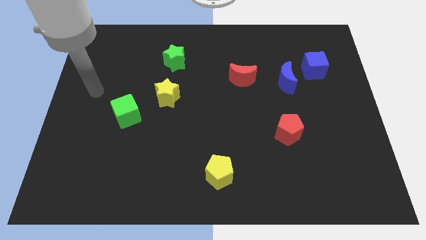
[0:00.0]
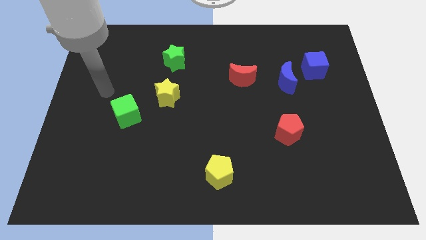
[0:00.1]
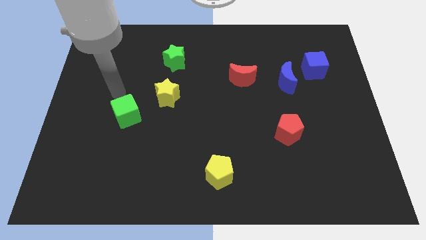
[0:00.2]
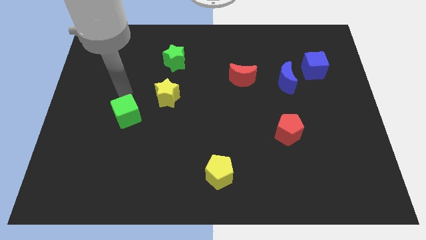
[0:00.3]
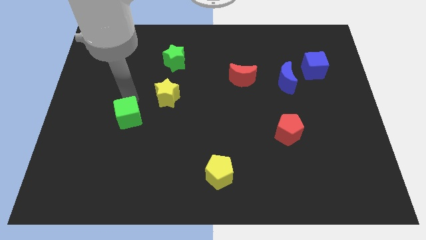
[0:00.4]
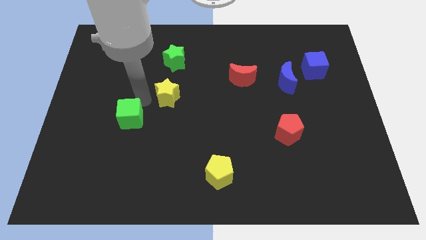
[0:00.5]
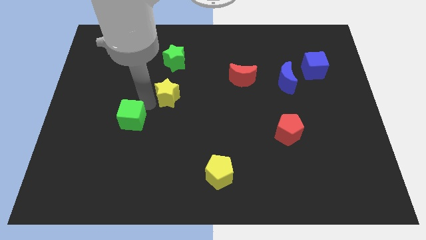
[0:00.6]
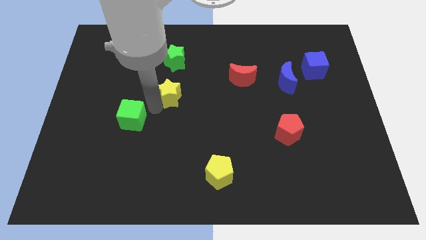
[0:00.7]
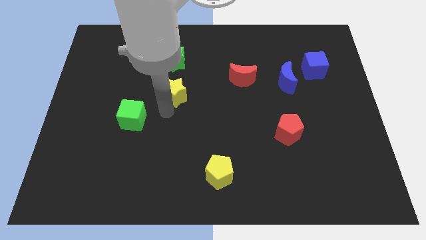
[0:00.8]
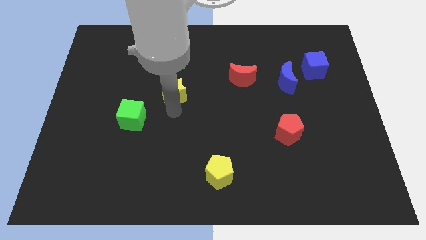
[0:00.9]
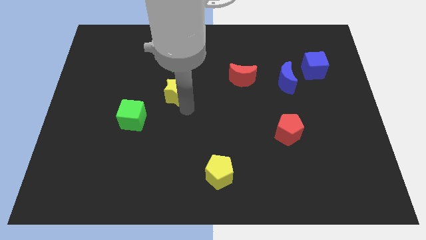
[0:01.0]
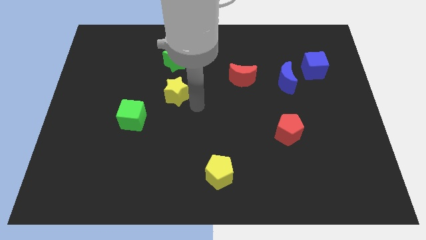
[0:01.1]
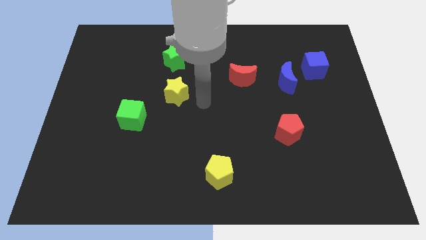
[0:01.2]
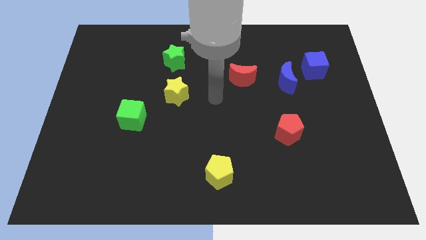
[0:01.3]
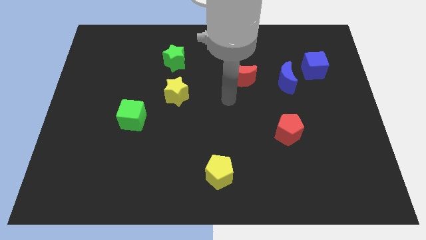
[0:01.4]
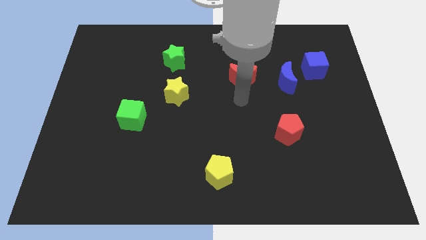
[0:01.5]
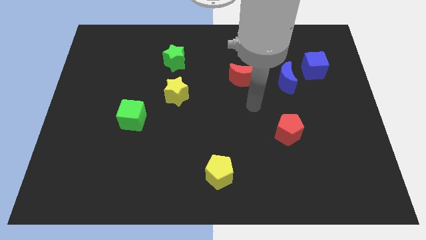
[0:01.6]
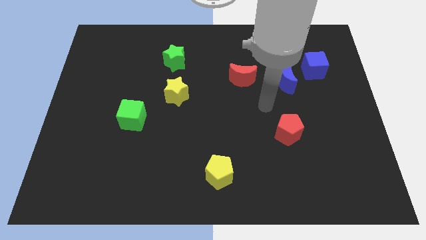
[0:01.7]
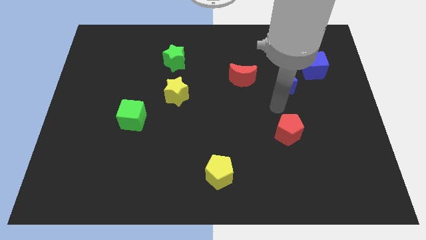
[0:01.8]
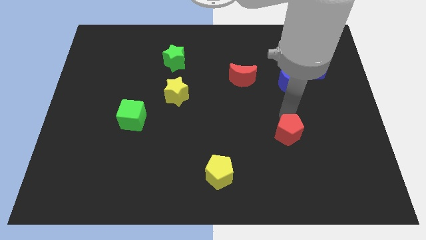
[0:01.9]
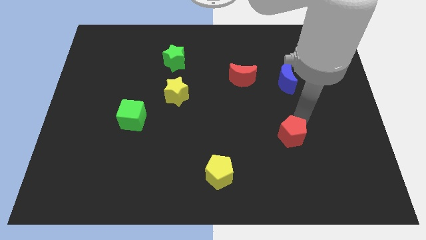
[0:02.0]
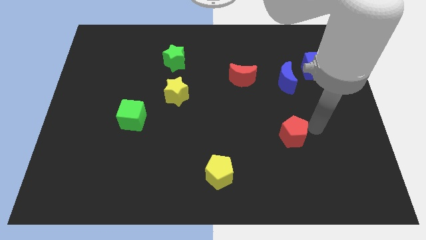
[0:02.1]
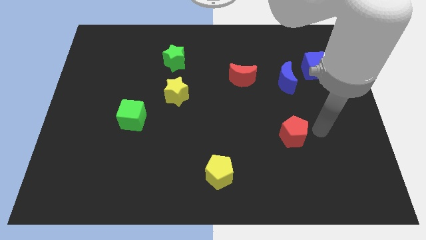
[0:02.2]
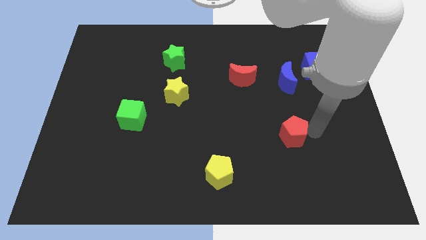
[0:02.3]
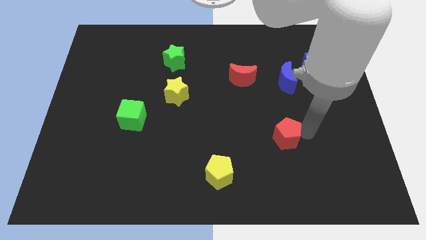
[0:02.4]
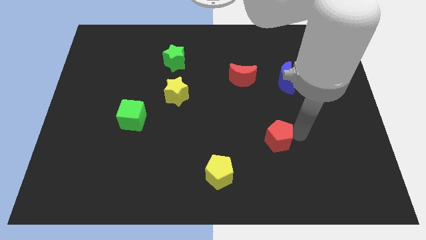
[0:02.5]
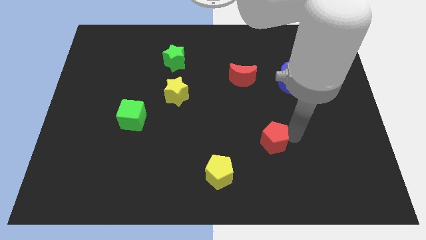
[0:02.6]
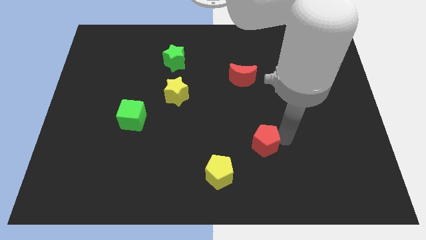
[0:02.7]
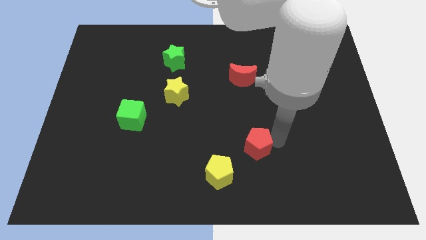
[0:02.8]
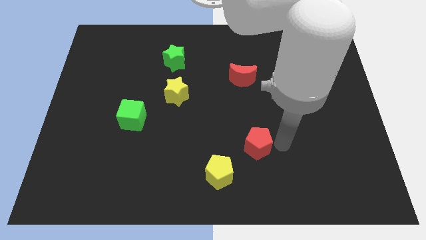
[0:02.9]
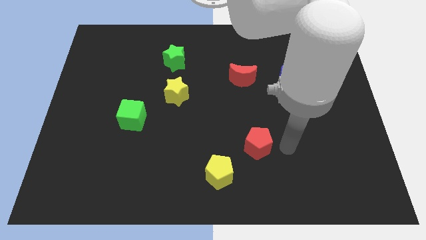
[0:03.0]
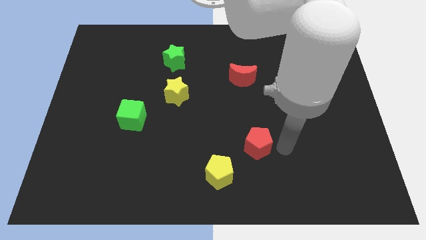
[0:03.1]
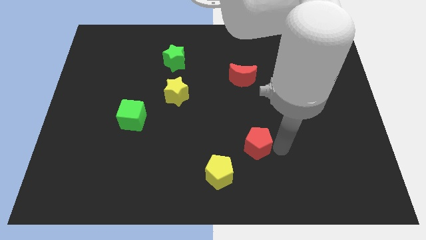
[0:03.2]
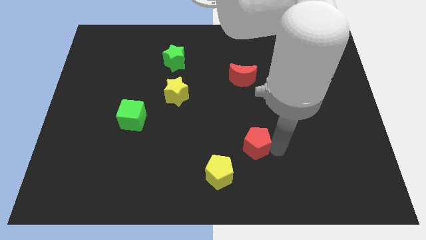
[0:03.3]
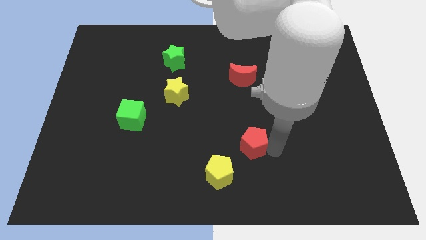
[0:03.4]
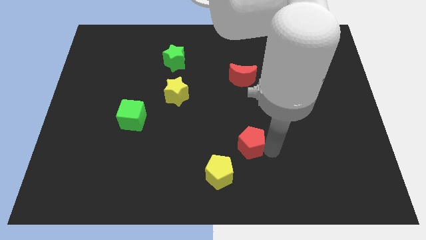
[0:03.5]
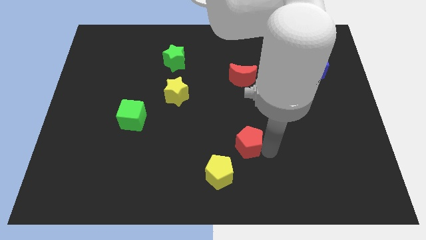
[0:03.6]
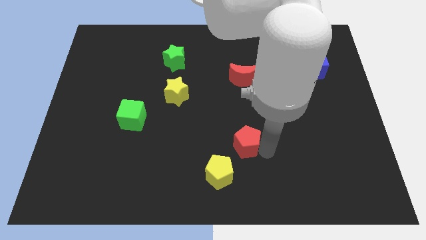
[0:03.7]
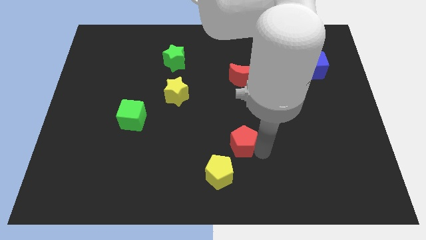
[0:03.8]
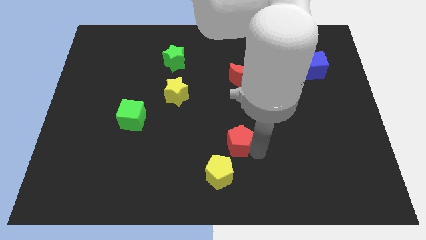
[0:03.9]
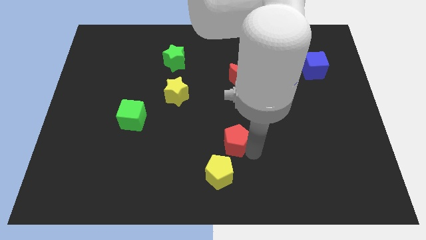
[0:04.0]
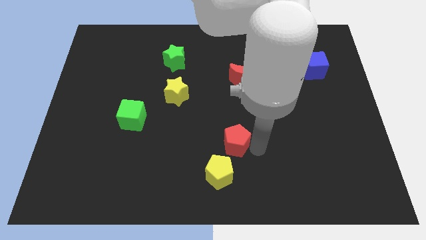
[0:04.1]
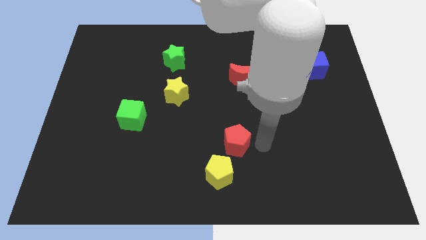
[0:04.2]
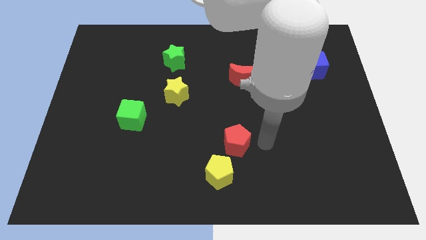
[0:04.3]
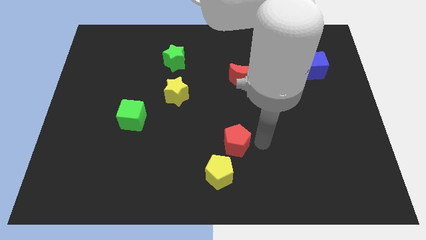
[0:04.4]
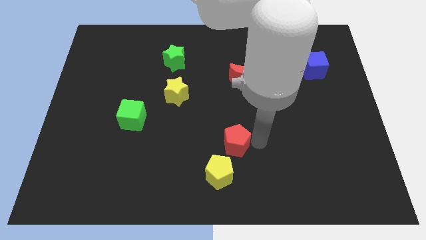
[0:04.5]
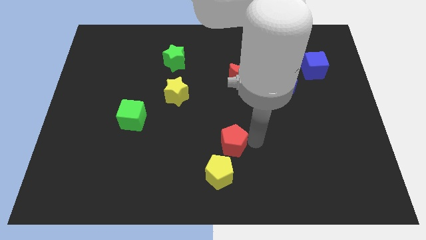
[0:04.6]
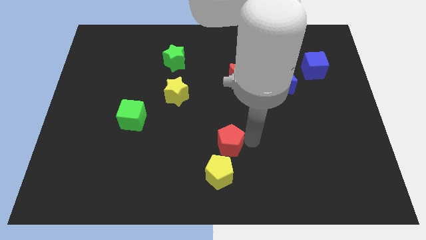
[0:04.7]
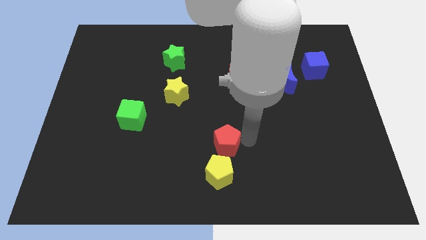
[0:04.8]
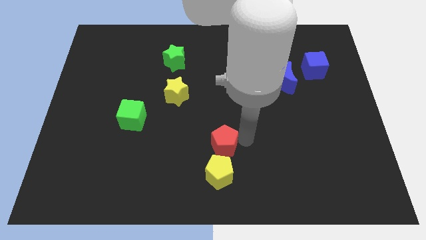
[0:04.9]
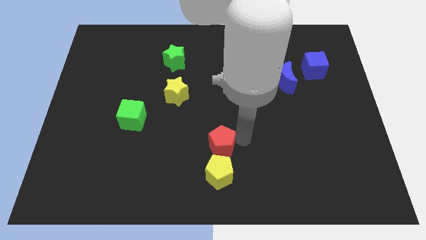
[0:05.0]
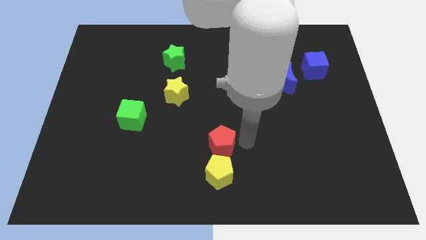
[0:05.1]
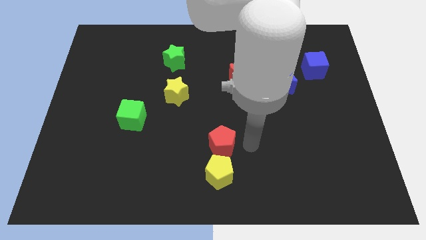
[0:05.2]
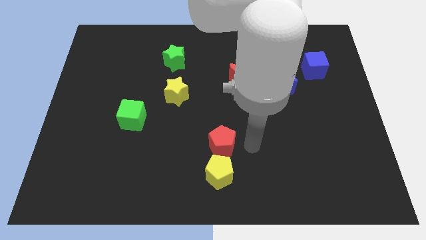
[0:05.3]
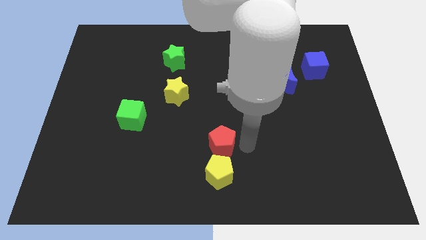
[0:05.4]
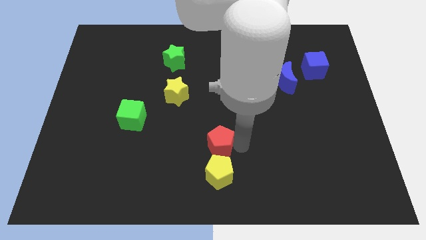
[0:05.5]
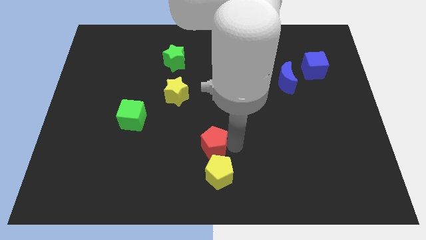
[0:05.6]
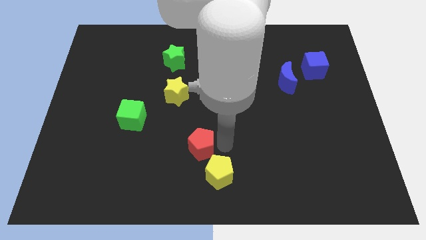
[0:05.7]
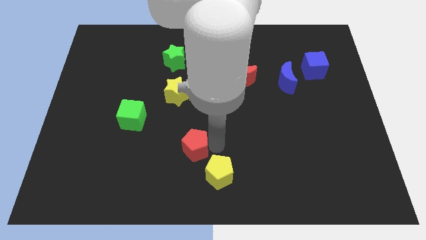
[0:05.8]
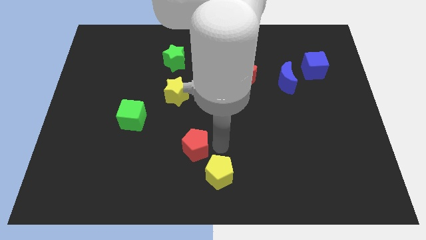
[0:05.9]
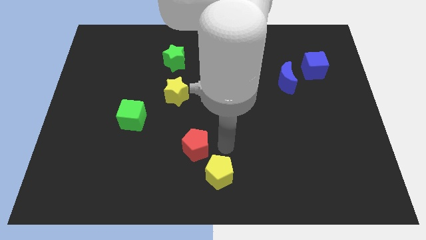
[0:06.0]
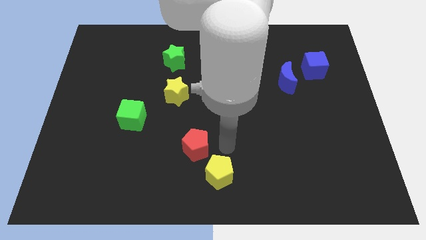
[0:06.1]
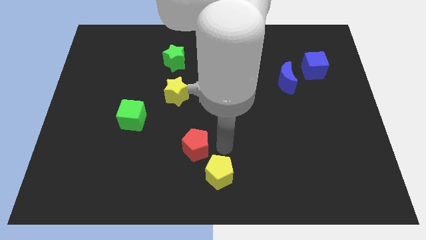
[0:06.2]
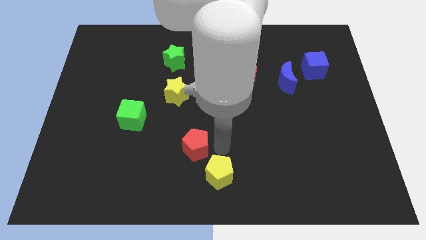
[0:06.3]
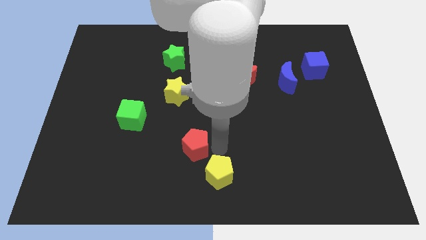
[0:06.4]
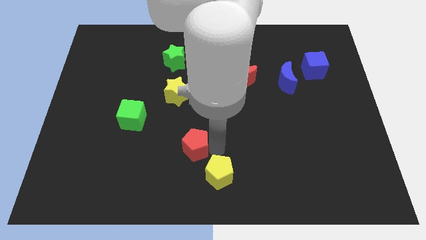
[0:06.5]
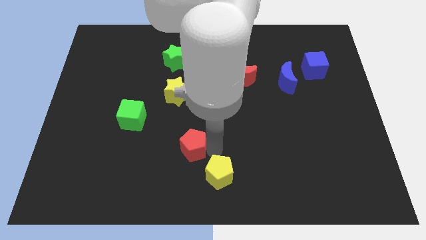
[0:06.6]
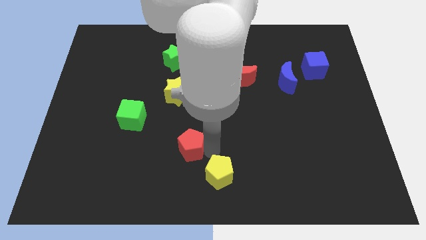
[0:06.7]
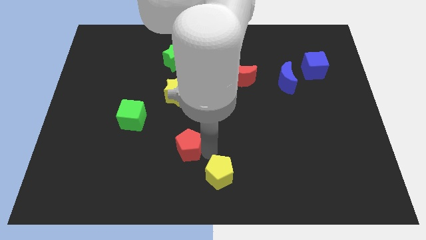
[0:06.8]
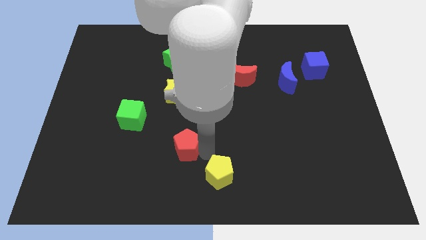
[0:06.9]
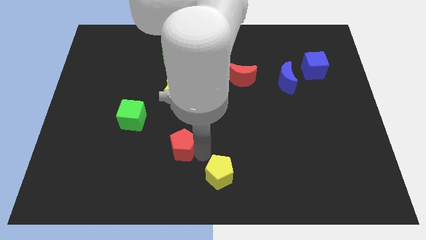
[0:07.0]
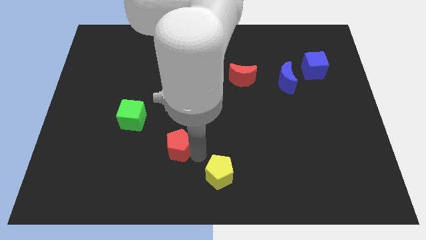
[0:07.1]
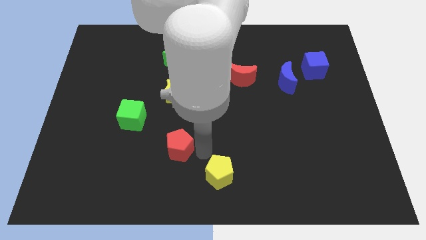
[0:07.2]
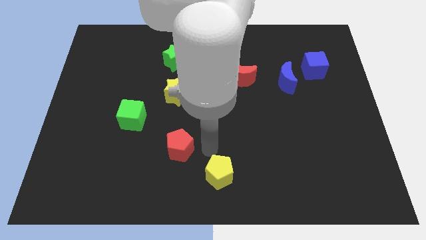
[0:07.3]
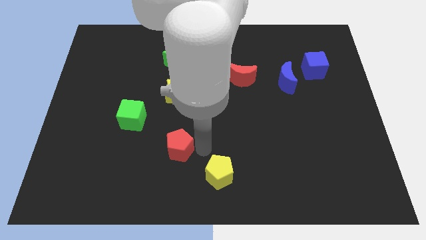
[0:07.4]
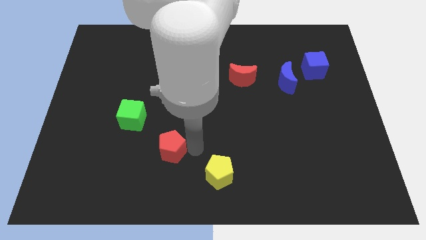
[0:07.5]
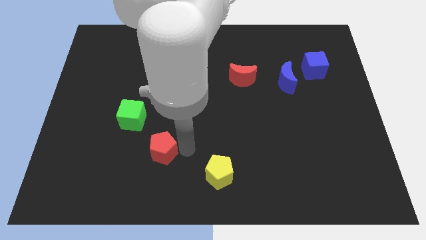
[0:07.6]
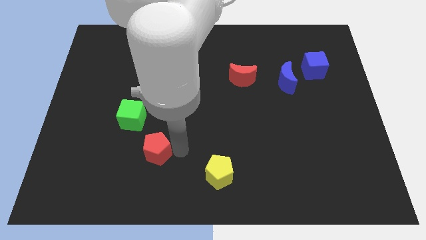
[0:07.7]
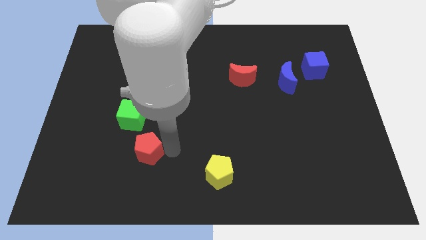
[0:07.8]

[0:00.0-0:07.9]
push the red pentagon below the green cube
